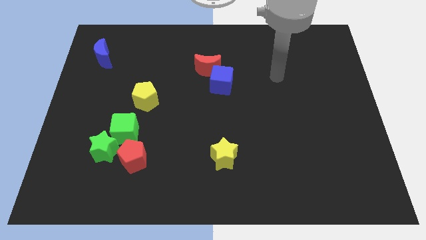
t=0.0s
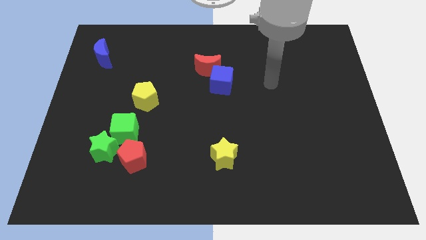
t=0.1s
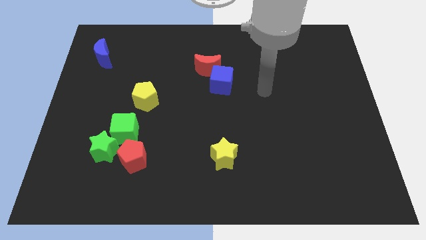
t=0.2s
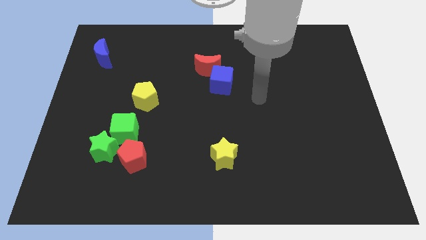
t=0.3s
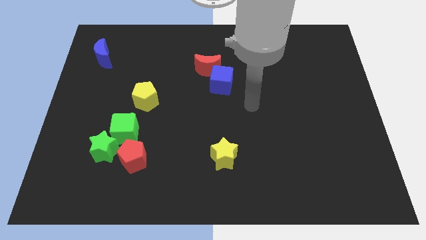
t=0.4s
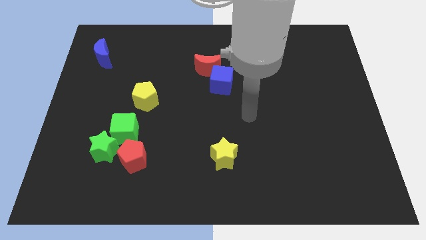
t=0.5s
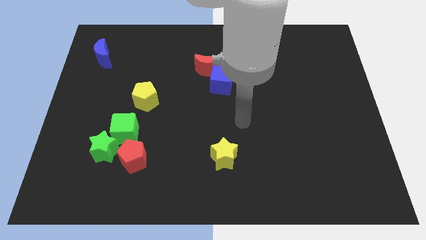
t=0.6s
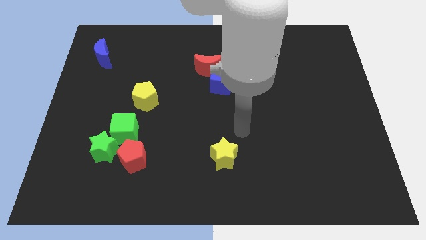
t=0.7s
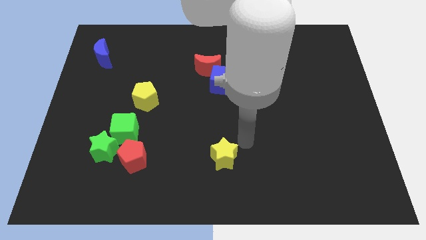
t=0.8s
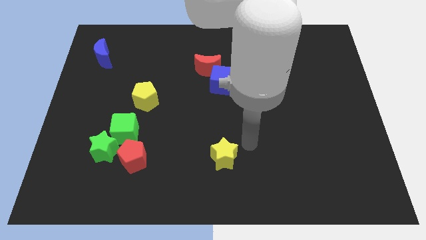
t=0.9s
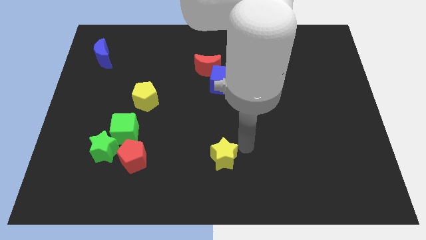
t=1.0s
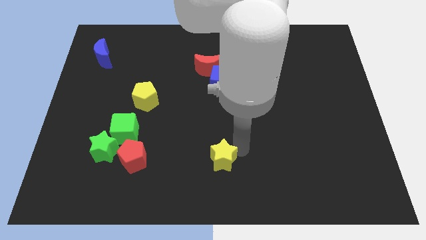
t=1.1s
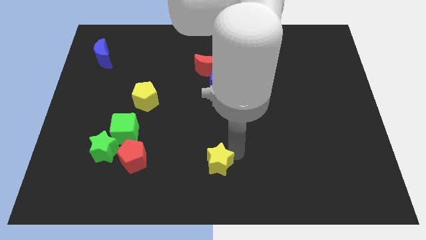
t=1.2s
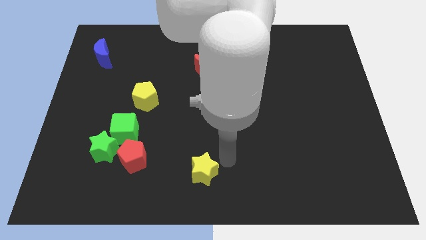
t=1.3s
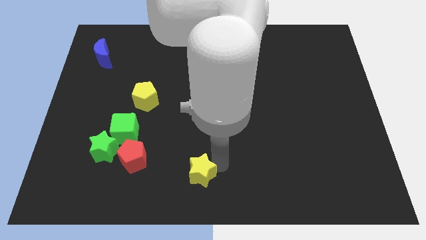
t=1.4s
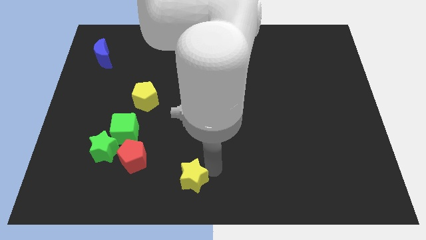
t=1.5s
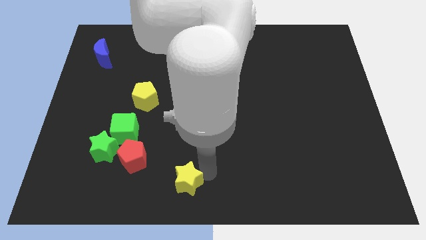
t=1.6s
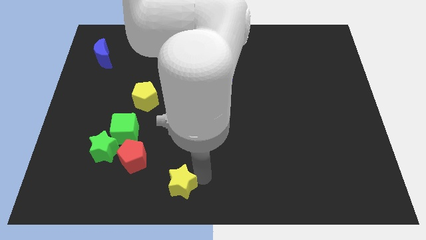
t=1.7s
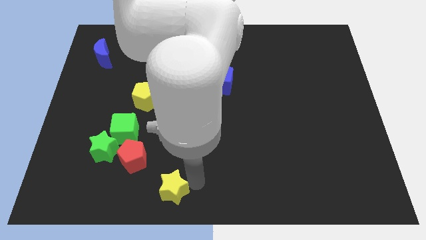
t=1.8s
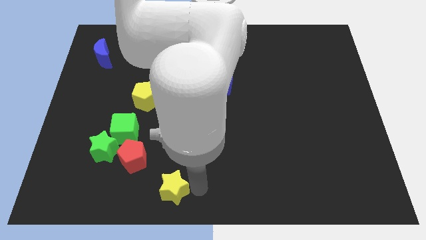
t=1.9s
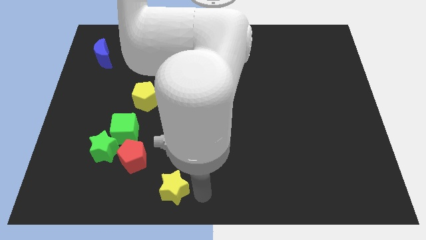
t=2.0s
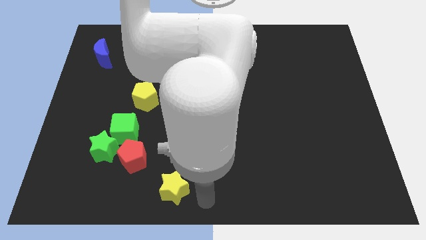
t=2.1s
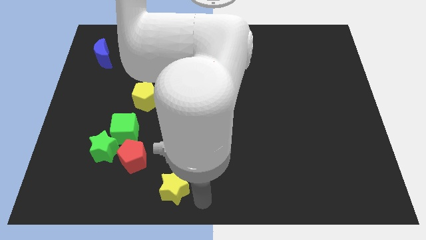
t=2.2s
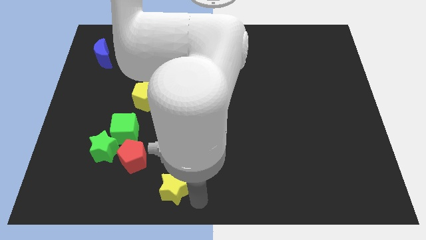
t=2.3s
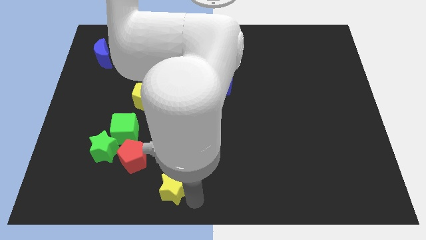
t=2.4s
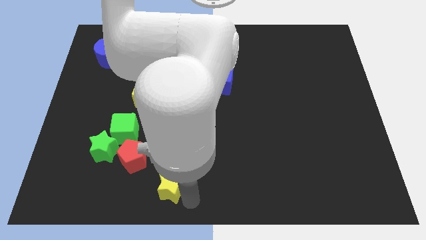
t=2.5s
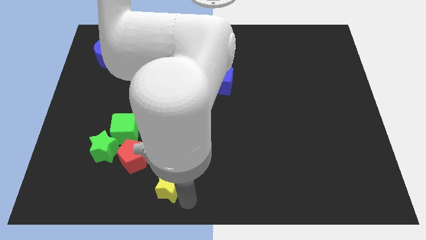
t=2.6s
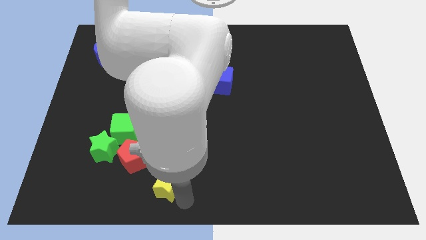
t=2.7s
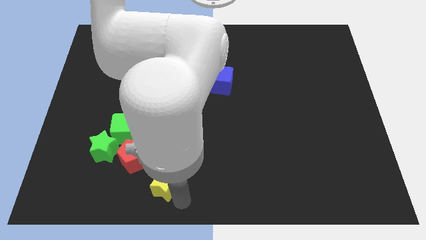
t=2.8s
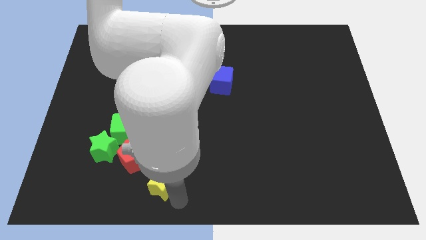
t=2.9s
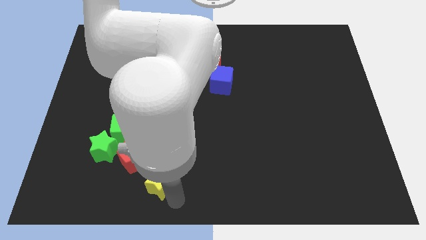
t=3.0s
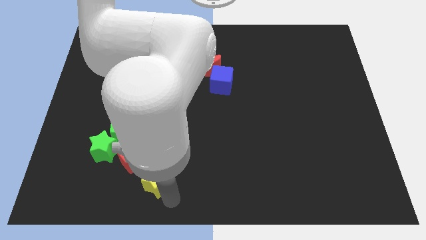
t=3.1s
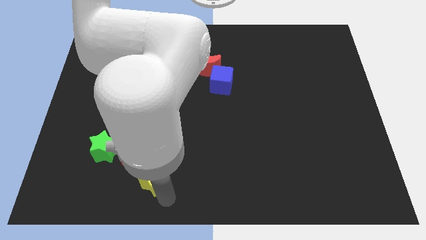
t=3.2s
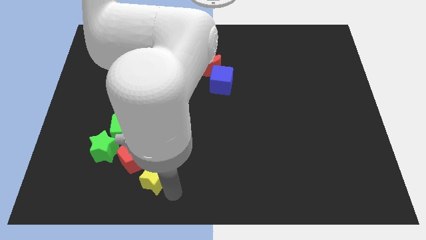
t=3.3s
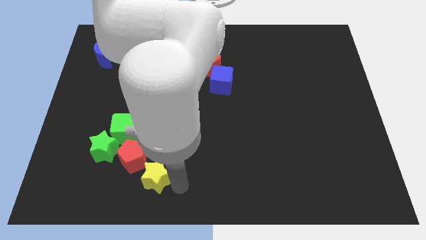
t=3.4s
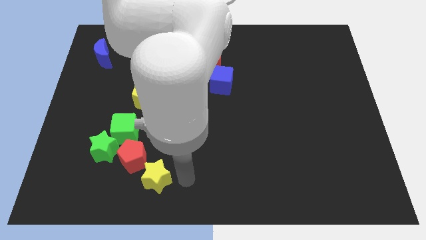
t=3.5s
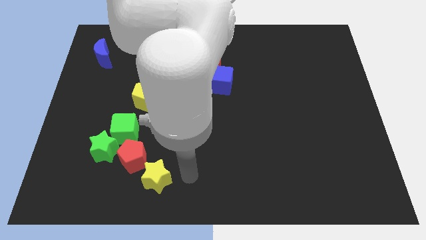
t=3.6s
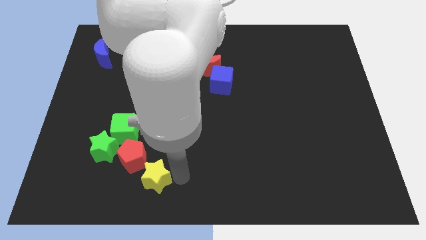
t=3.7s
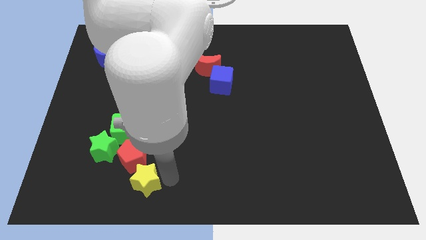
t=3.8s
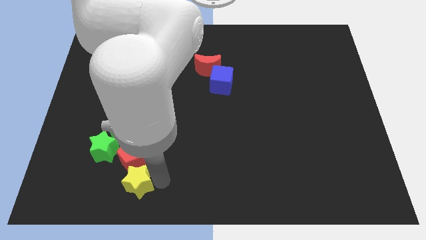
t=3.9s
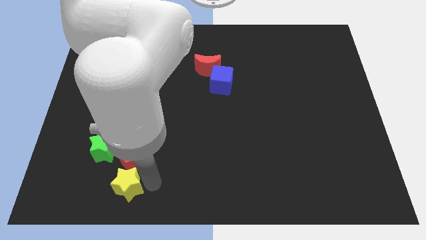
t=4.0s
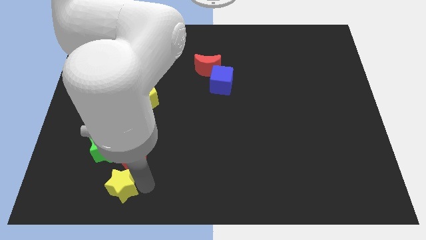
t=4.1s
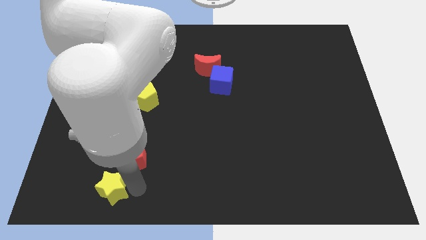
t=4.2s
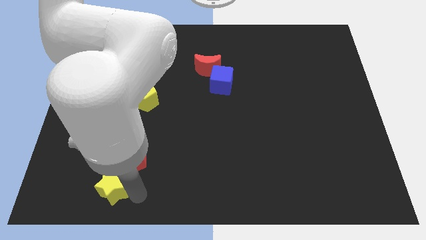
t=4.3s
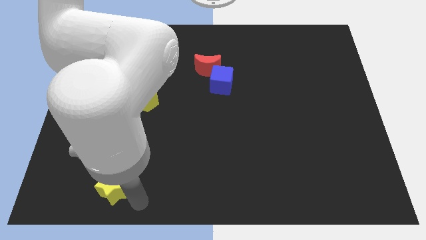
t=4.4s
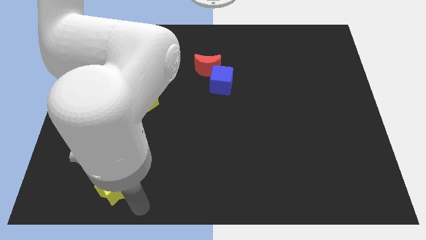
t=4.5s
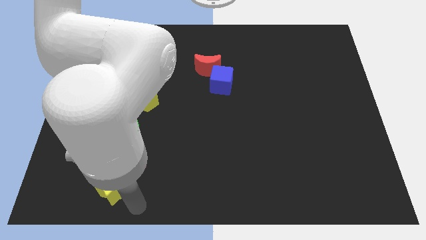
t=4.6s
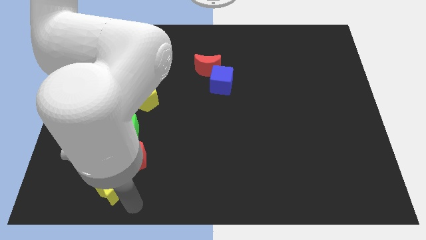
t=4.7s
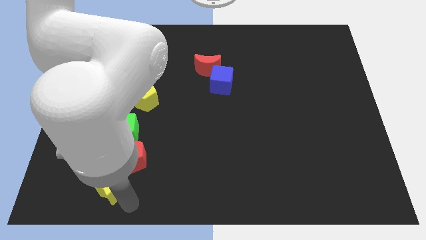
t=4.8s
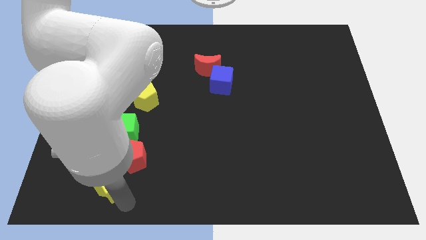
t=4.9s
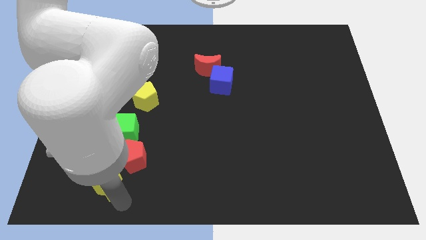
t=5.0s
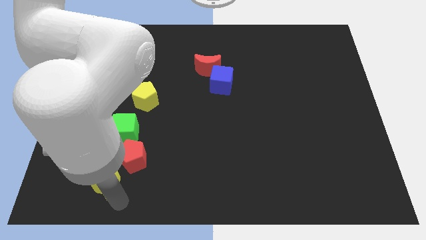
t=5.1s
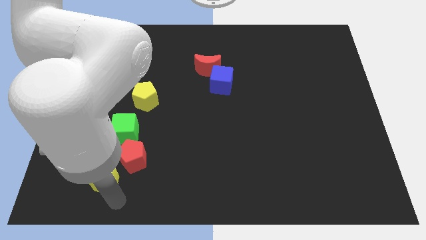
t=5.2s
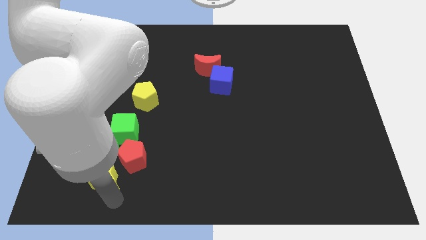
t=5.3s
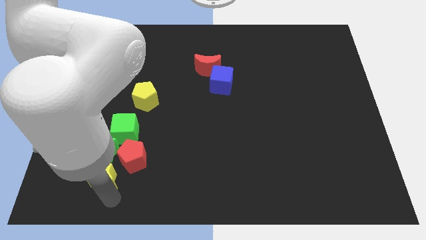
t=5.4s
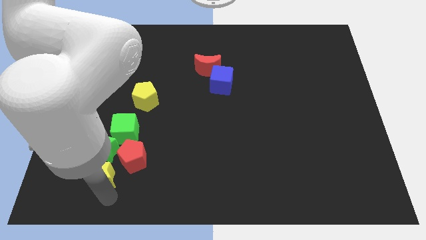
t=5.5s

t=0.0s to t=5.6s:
slide the yellow star diagonally down and to the left of the green star

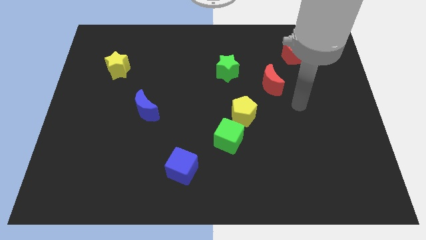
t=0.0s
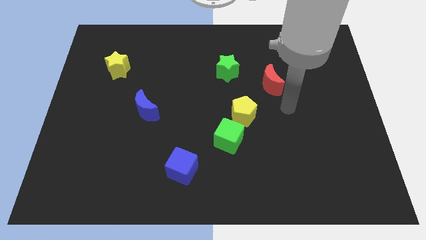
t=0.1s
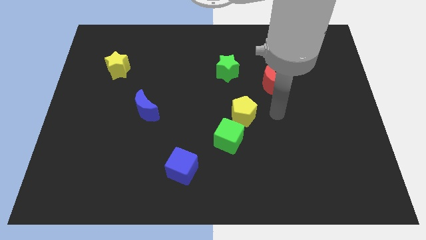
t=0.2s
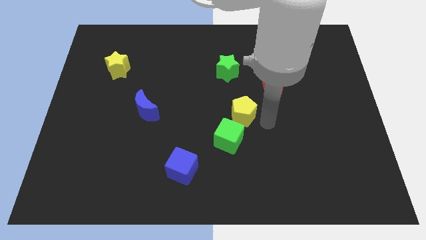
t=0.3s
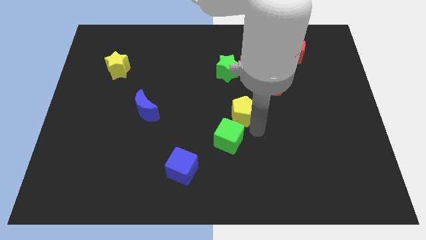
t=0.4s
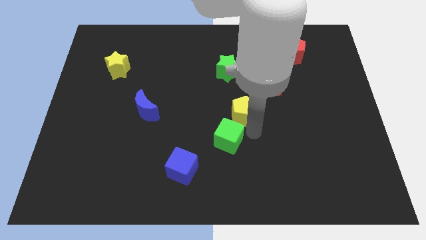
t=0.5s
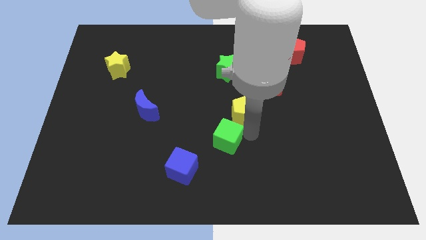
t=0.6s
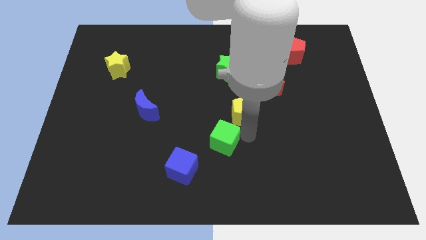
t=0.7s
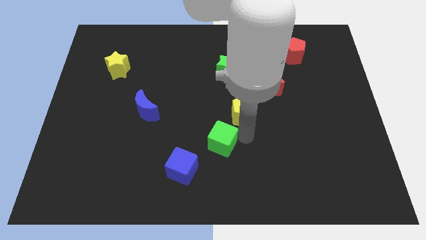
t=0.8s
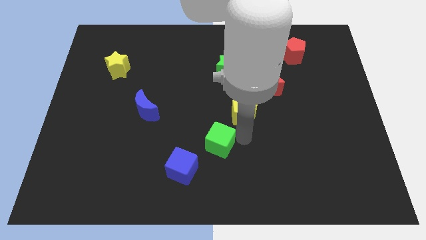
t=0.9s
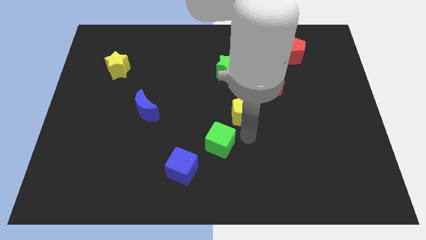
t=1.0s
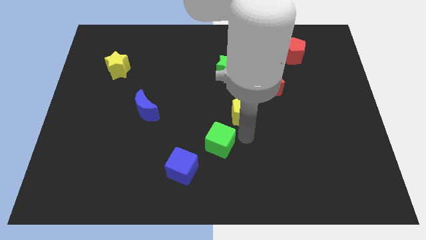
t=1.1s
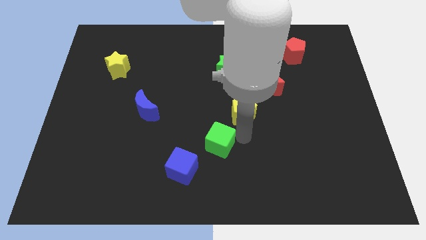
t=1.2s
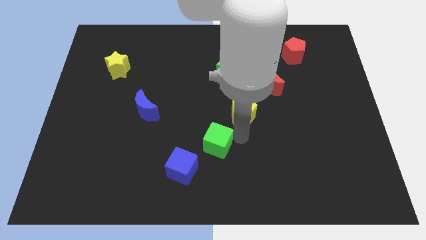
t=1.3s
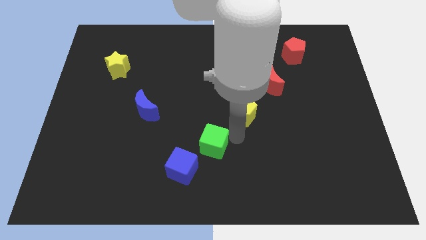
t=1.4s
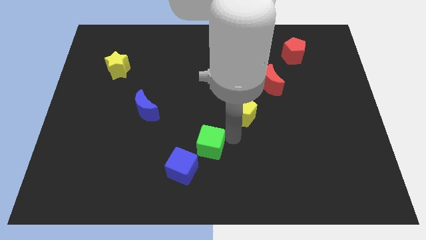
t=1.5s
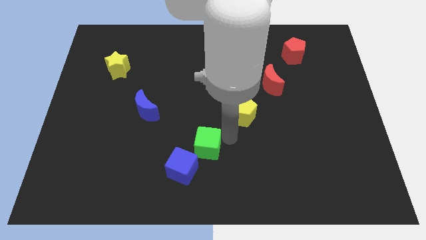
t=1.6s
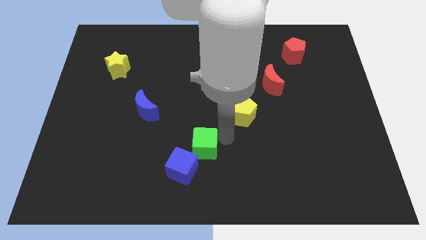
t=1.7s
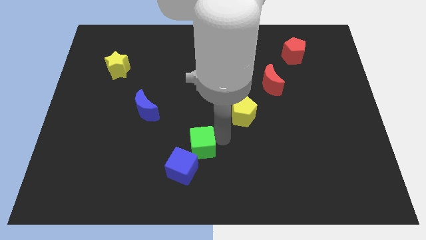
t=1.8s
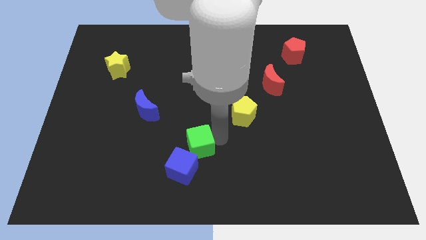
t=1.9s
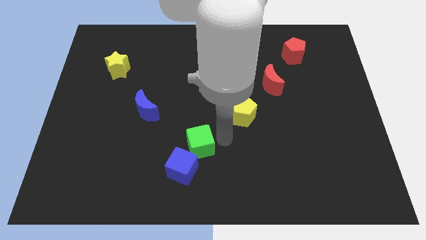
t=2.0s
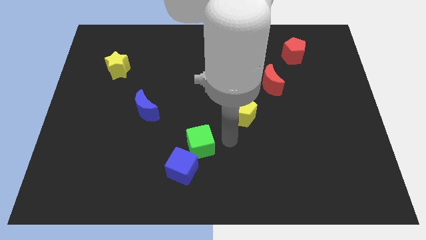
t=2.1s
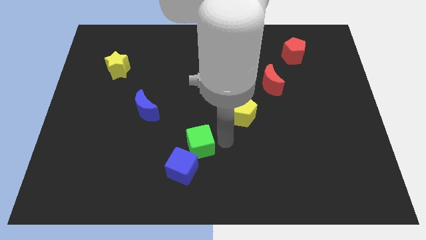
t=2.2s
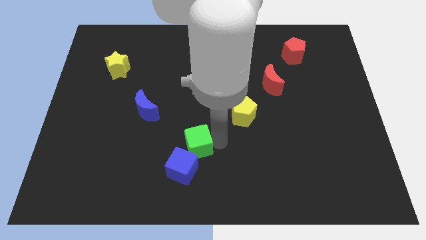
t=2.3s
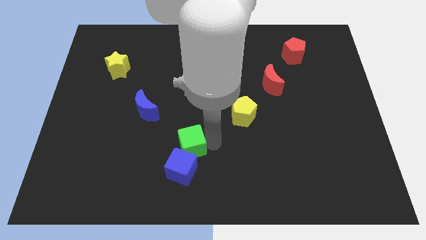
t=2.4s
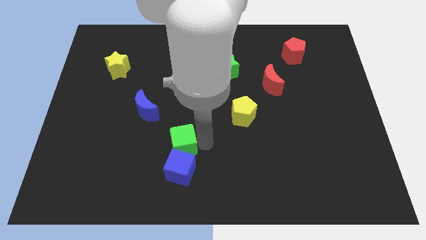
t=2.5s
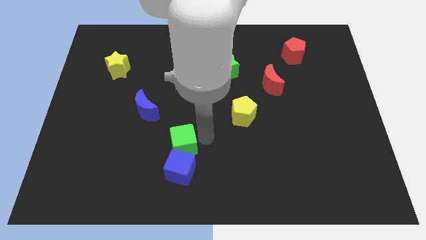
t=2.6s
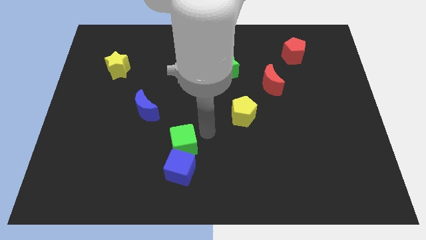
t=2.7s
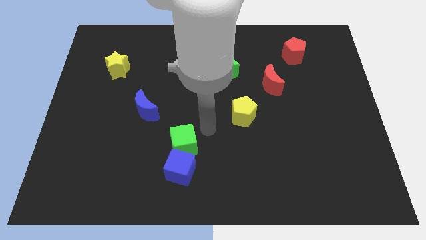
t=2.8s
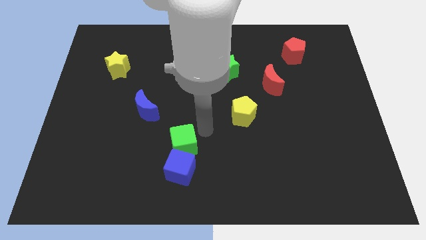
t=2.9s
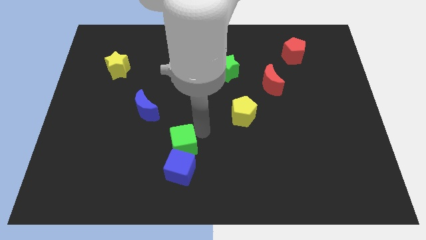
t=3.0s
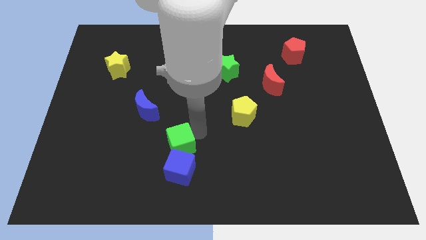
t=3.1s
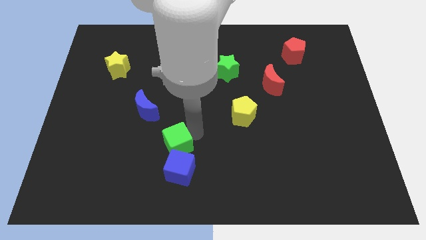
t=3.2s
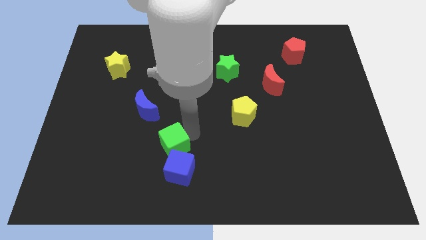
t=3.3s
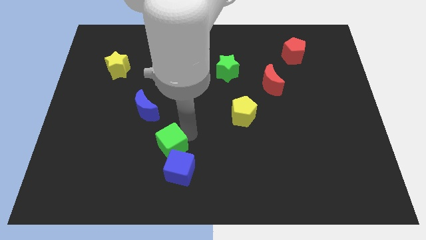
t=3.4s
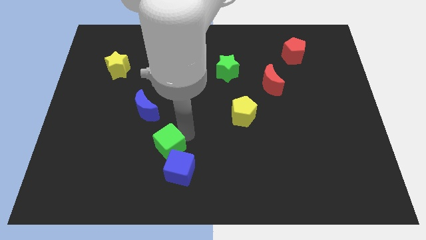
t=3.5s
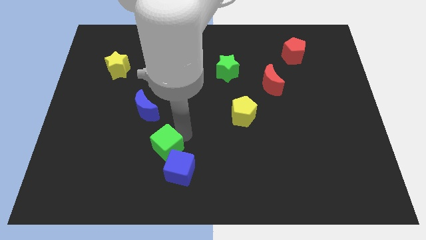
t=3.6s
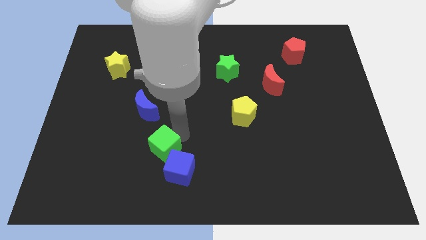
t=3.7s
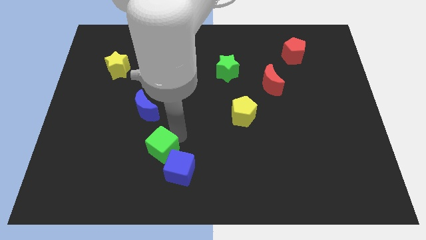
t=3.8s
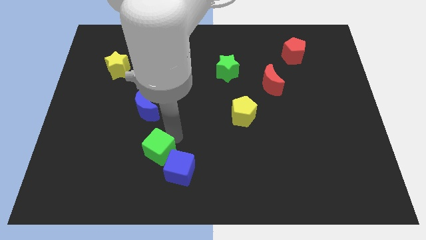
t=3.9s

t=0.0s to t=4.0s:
push the green cube left of the blue cube
